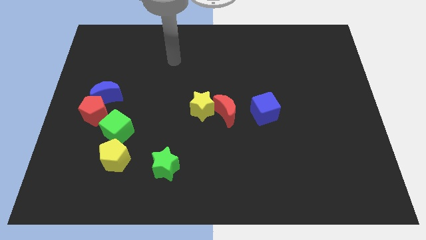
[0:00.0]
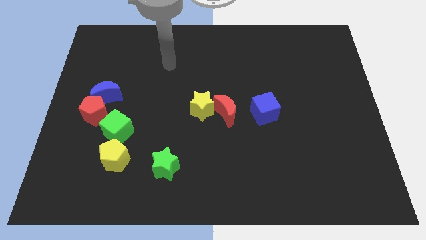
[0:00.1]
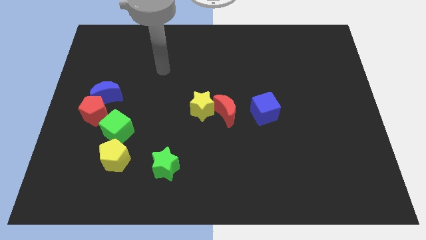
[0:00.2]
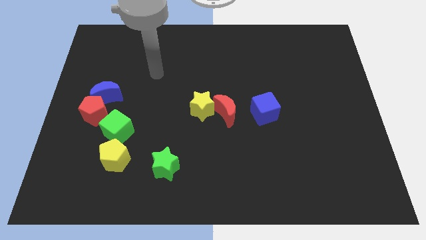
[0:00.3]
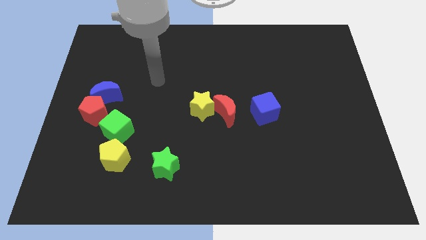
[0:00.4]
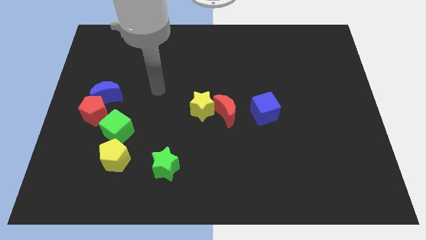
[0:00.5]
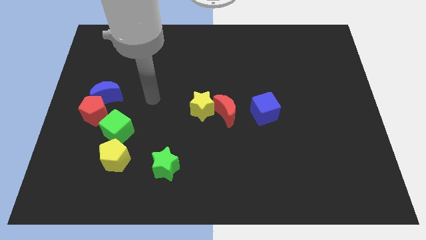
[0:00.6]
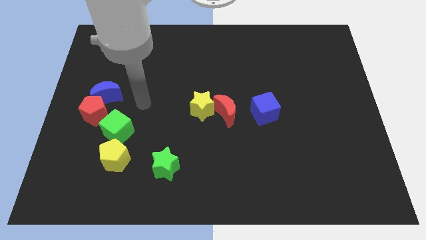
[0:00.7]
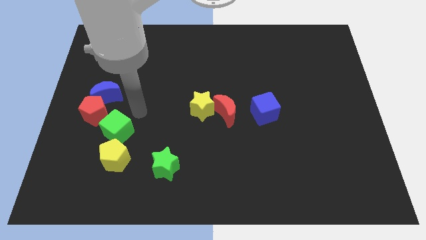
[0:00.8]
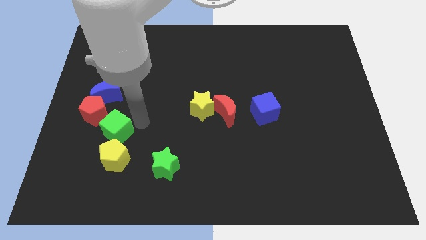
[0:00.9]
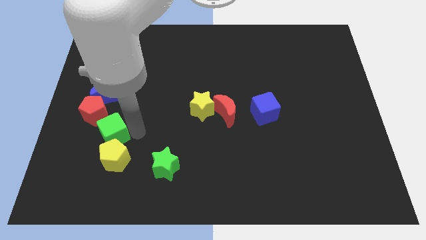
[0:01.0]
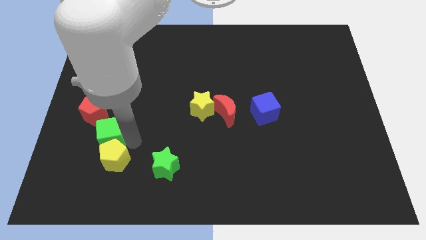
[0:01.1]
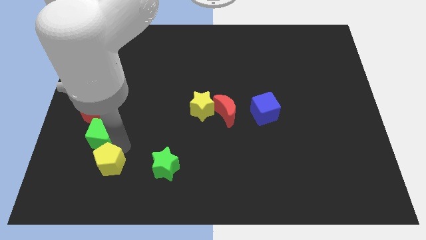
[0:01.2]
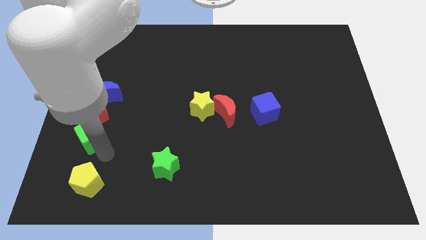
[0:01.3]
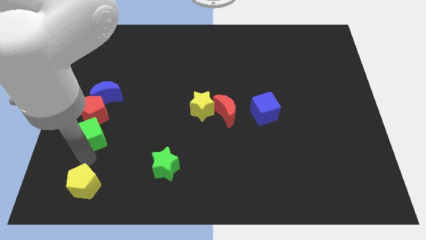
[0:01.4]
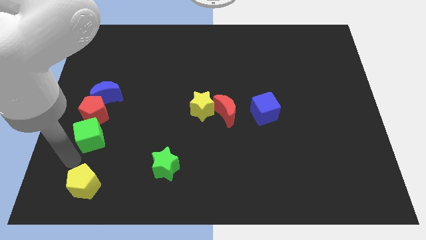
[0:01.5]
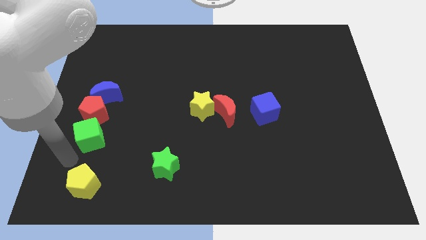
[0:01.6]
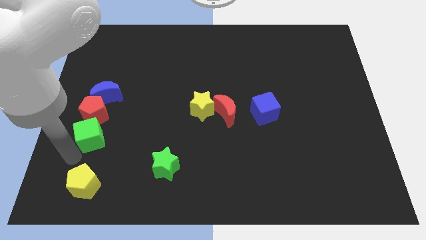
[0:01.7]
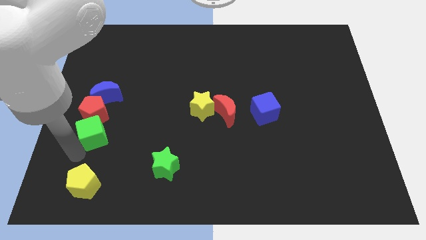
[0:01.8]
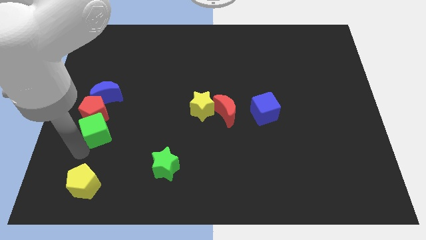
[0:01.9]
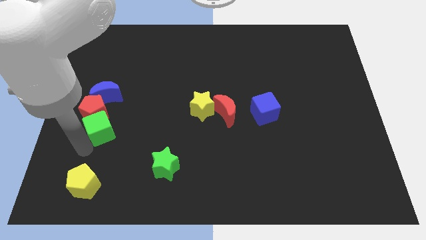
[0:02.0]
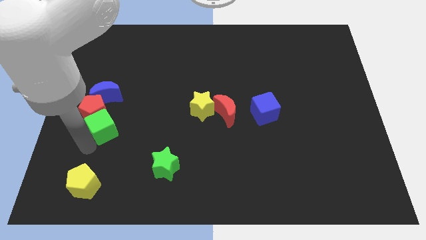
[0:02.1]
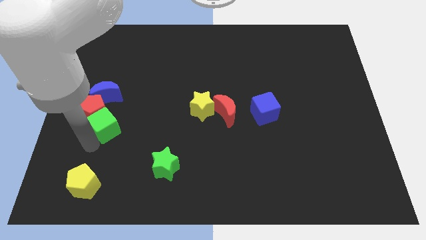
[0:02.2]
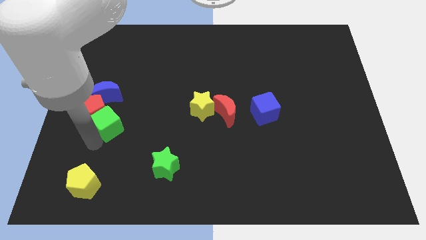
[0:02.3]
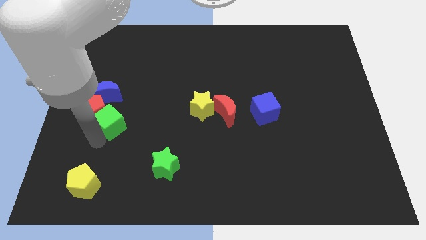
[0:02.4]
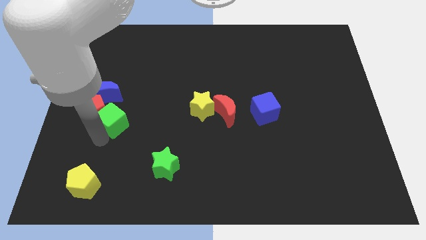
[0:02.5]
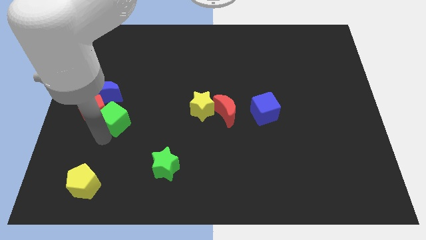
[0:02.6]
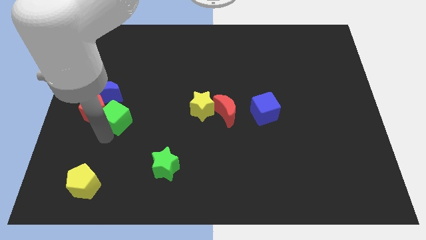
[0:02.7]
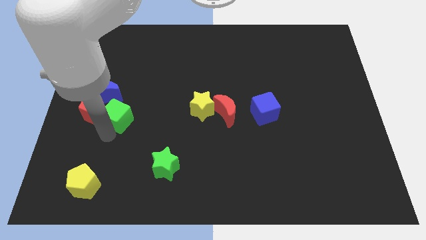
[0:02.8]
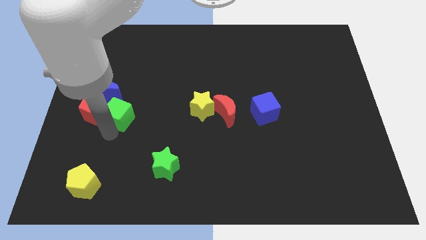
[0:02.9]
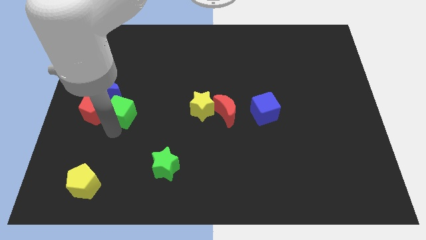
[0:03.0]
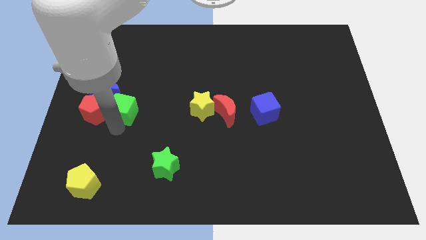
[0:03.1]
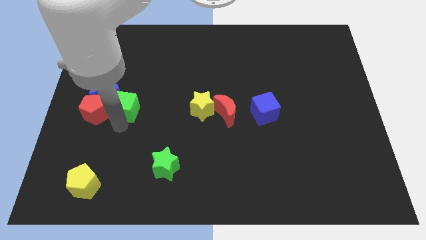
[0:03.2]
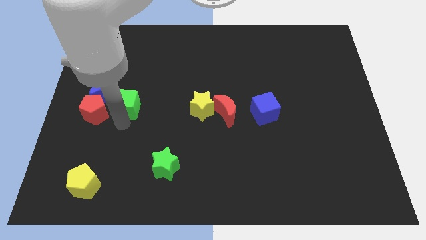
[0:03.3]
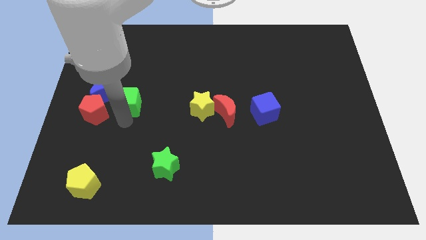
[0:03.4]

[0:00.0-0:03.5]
push the green cube a bit upwards

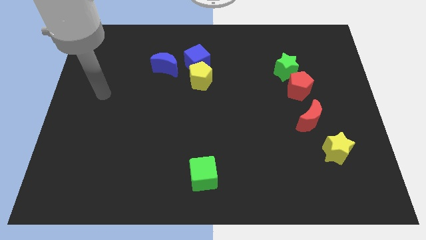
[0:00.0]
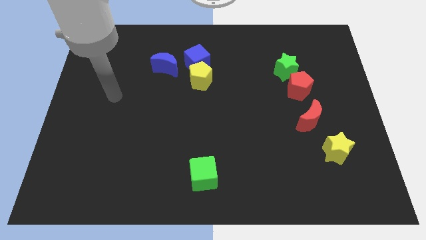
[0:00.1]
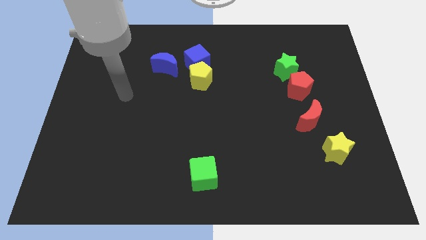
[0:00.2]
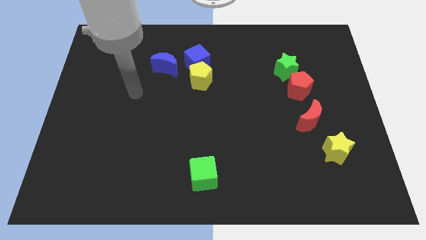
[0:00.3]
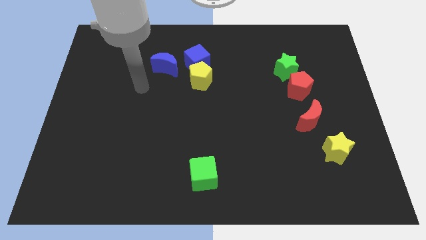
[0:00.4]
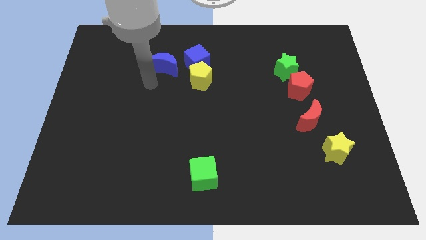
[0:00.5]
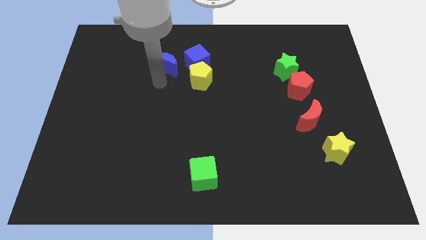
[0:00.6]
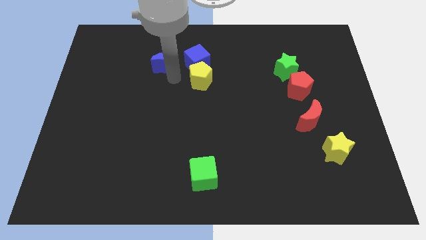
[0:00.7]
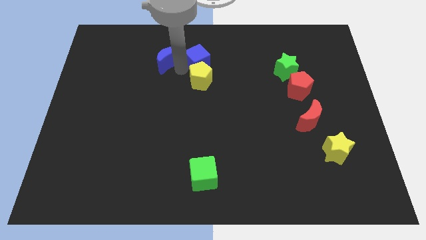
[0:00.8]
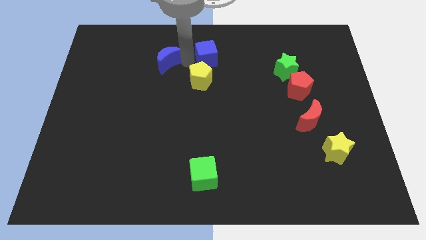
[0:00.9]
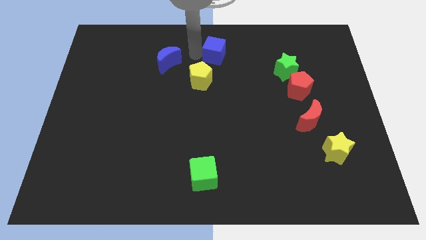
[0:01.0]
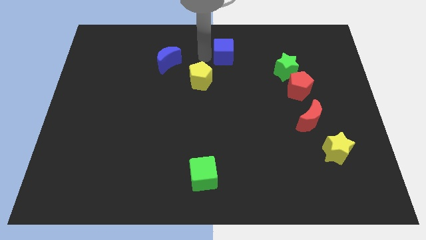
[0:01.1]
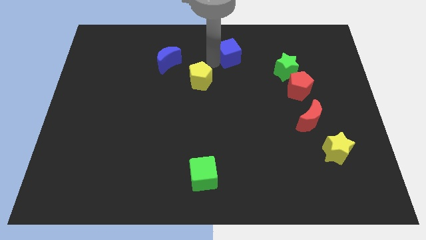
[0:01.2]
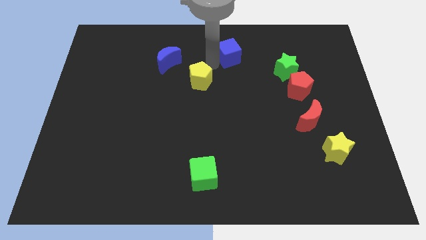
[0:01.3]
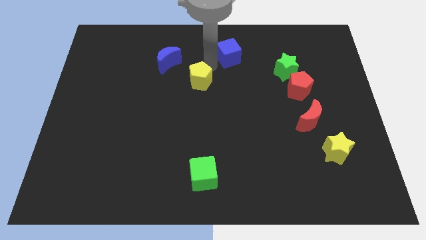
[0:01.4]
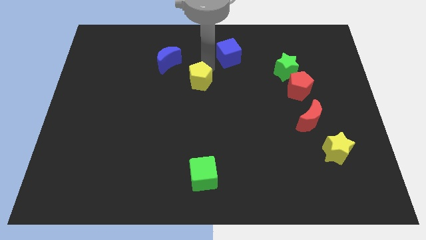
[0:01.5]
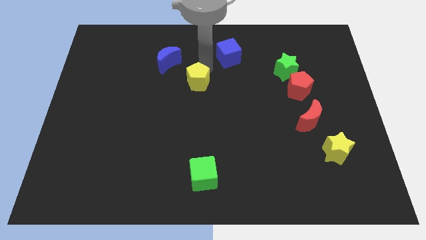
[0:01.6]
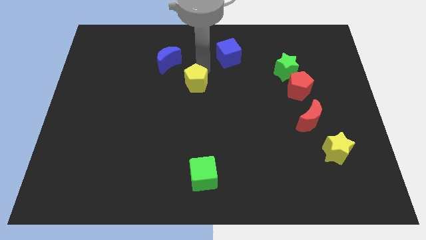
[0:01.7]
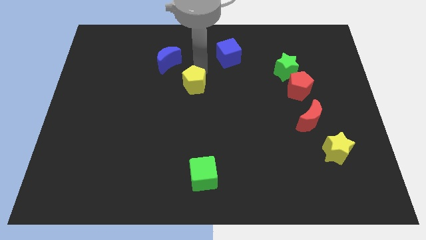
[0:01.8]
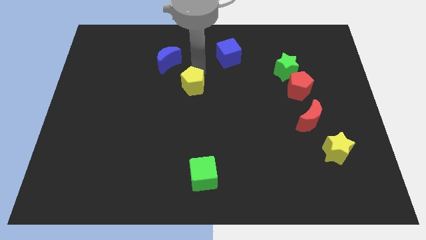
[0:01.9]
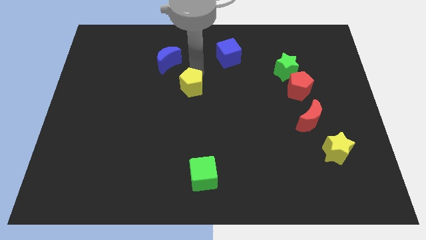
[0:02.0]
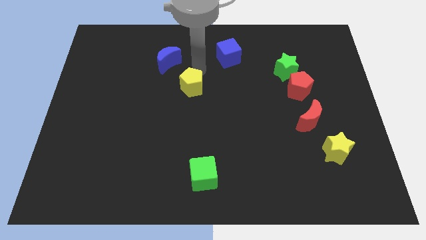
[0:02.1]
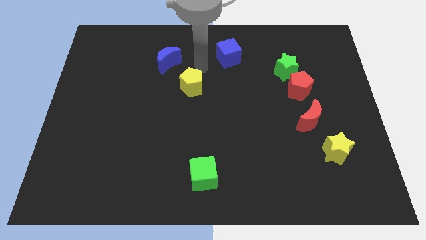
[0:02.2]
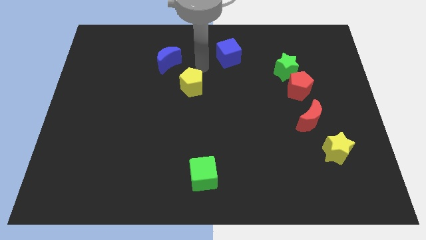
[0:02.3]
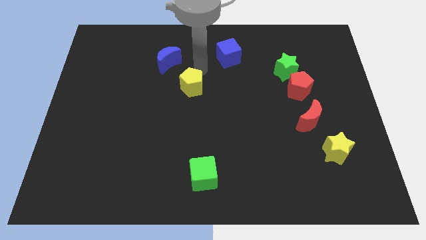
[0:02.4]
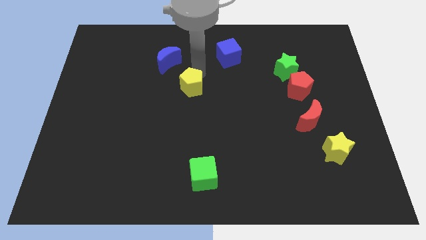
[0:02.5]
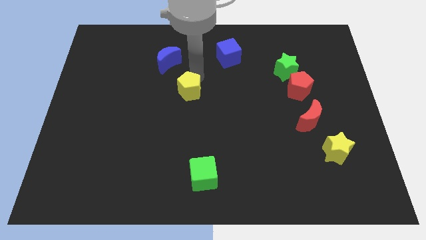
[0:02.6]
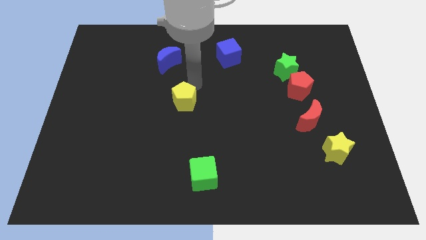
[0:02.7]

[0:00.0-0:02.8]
push the yellow pentagon a little downwards and left diagonally

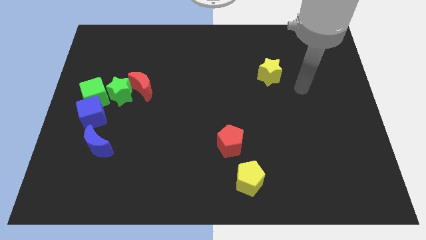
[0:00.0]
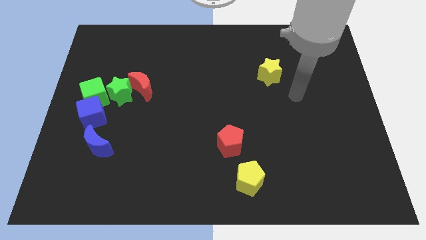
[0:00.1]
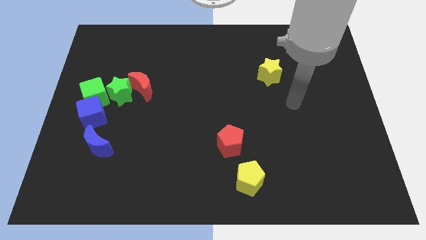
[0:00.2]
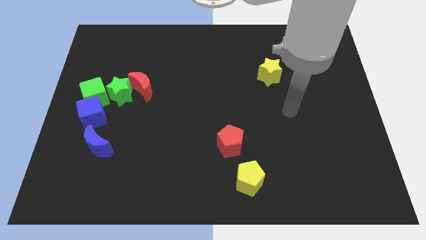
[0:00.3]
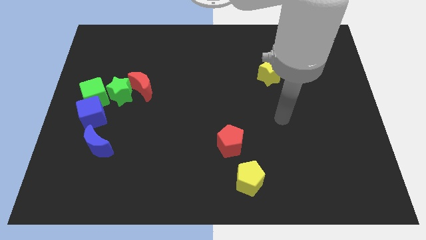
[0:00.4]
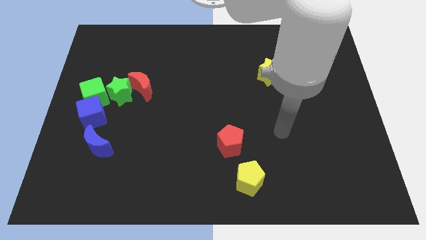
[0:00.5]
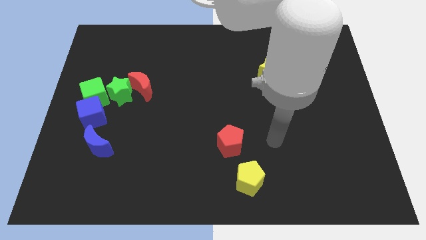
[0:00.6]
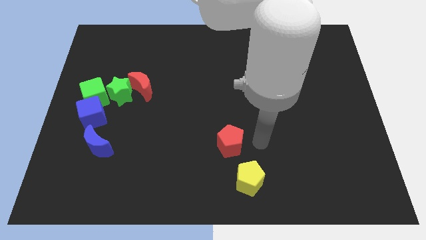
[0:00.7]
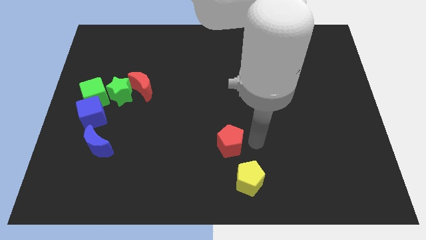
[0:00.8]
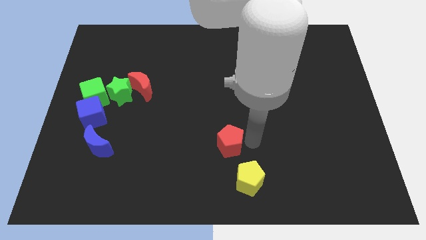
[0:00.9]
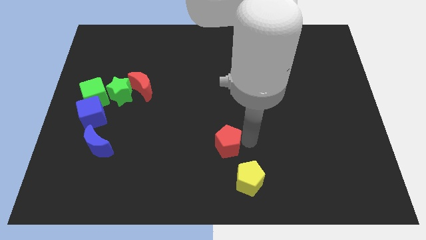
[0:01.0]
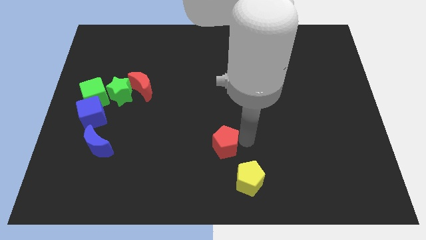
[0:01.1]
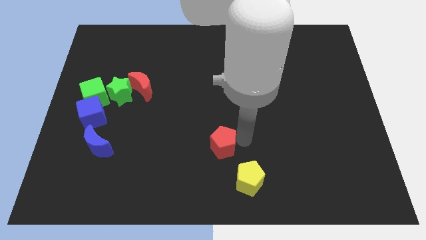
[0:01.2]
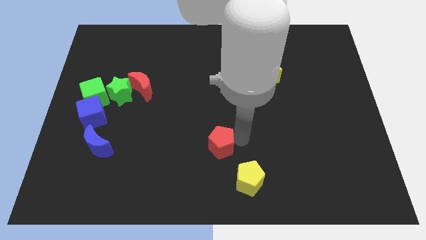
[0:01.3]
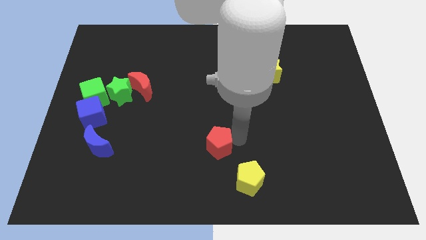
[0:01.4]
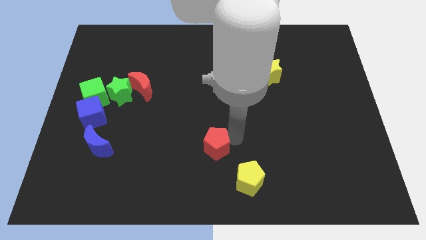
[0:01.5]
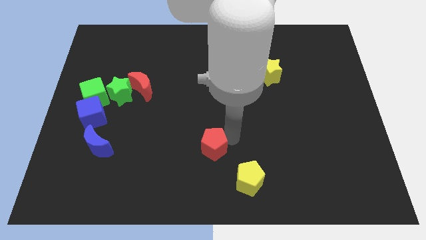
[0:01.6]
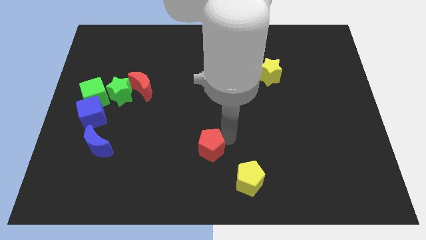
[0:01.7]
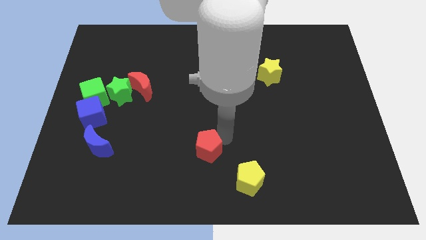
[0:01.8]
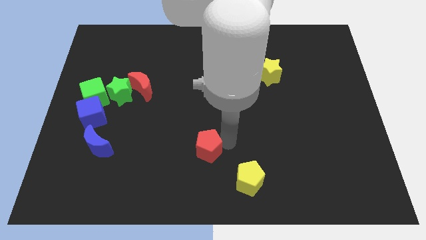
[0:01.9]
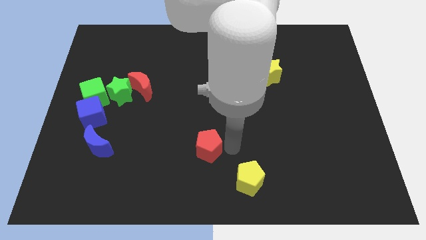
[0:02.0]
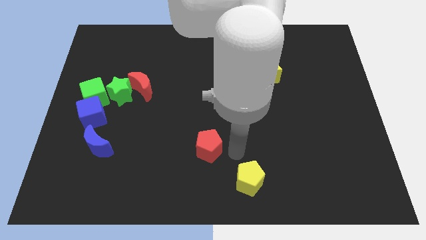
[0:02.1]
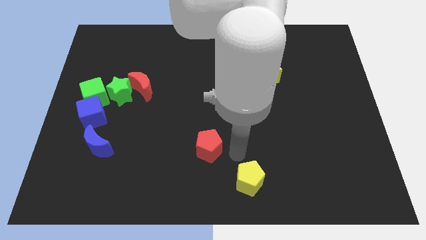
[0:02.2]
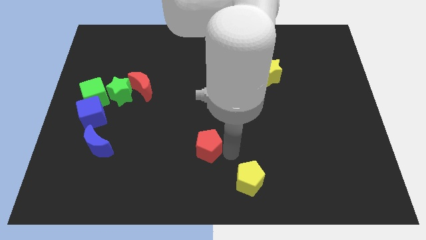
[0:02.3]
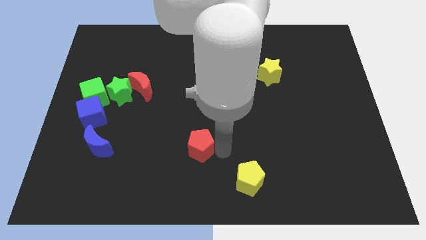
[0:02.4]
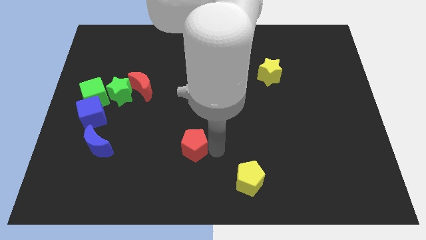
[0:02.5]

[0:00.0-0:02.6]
slightly slide the red pentagon to the left
